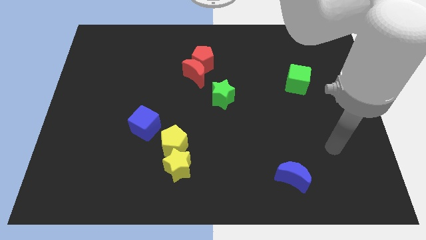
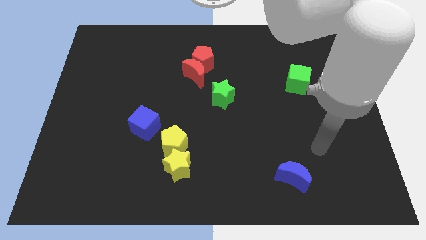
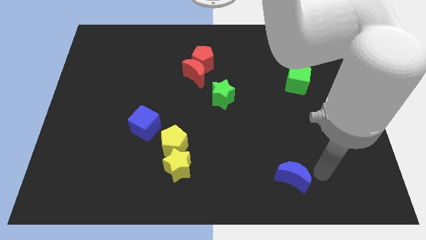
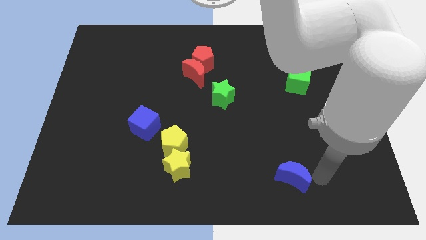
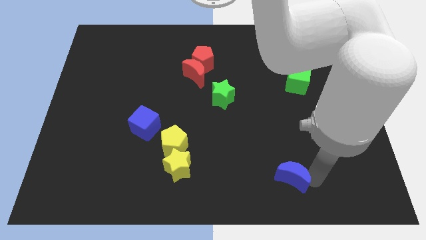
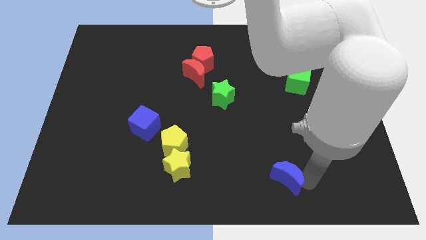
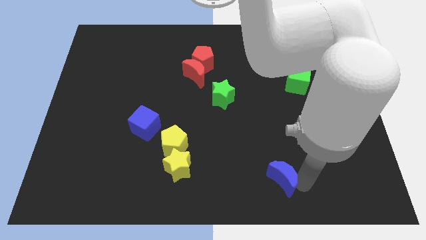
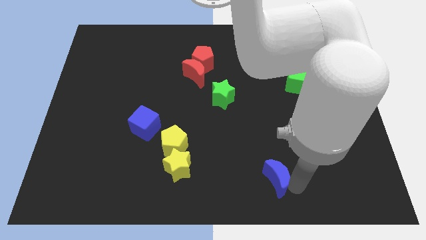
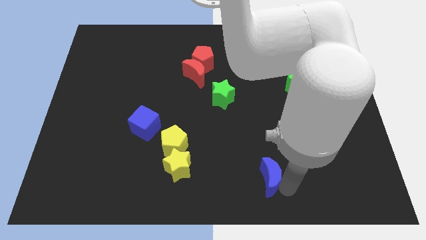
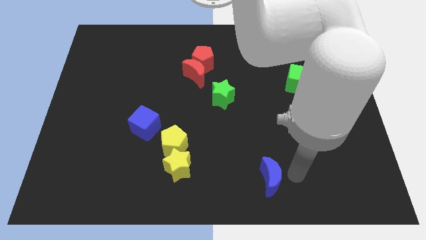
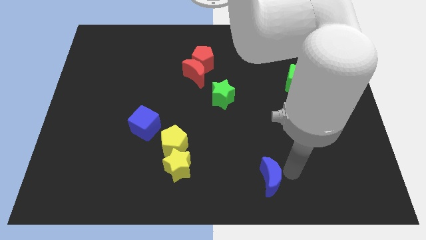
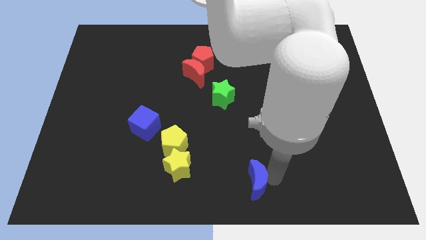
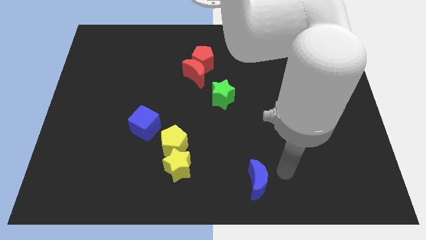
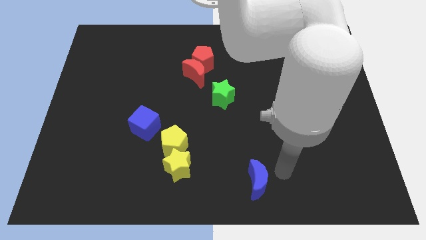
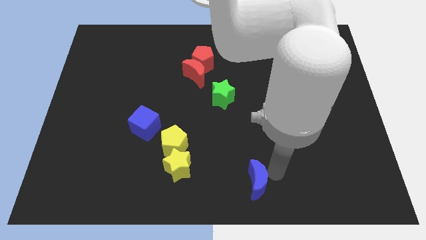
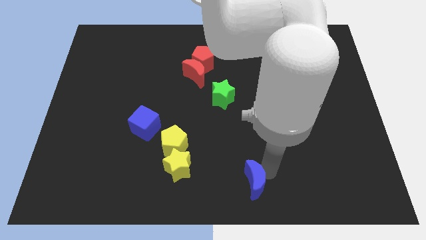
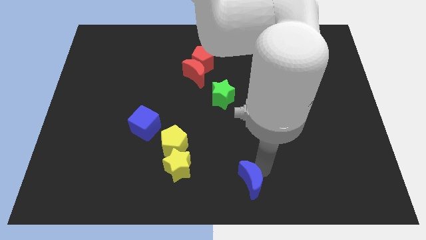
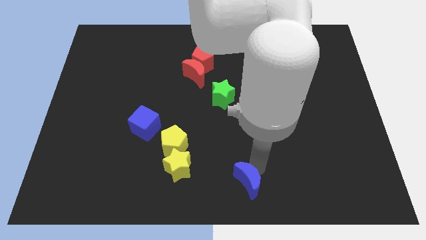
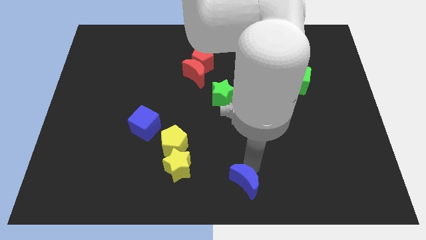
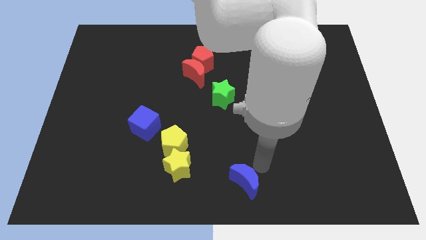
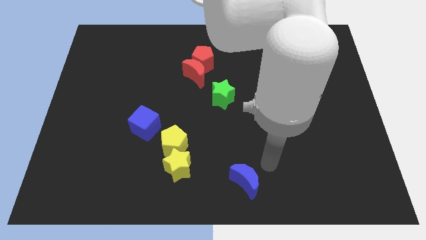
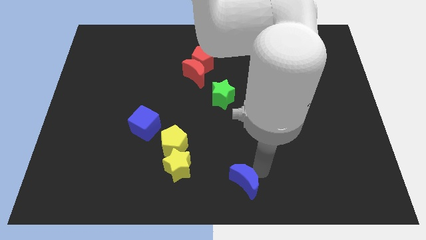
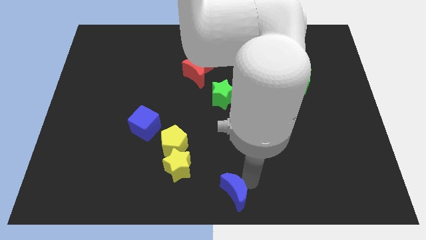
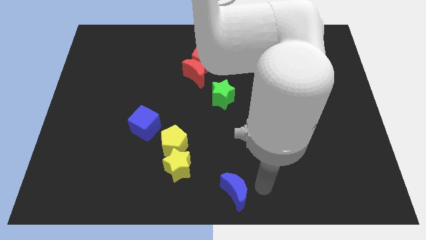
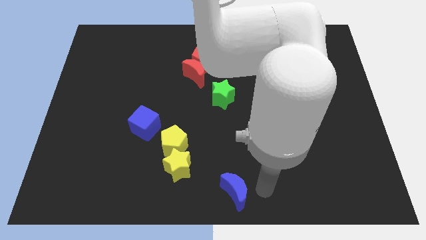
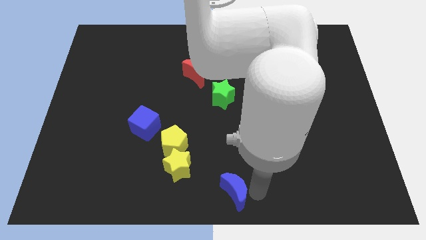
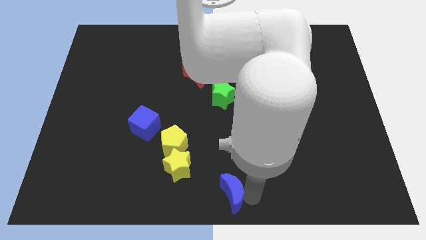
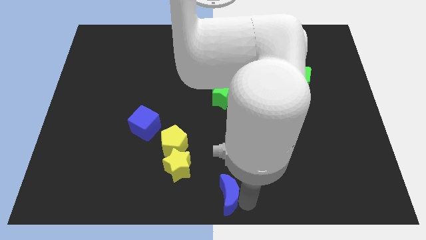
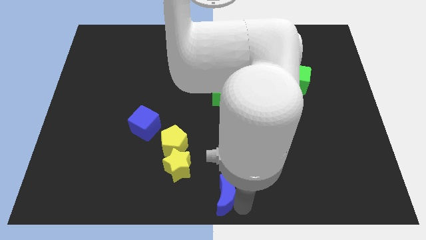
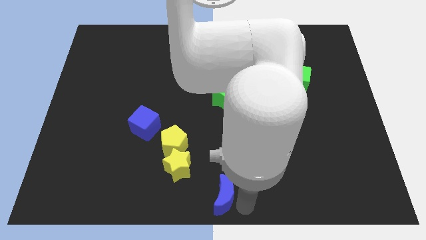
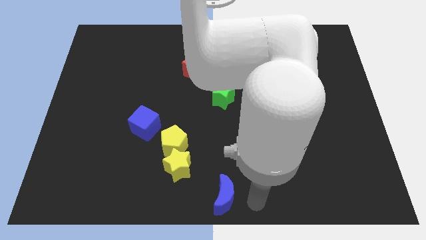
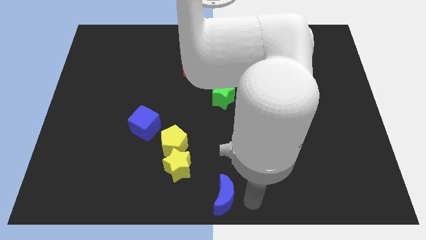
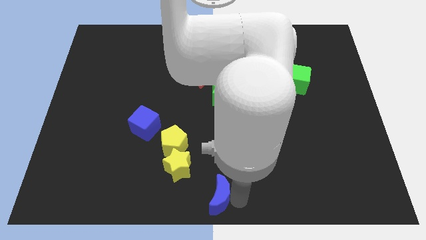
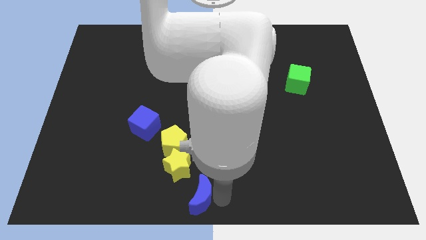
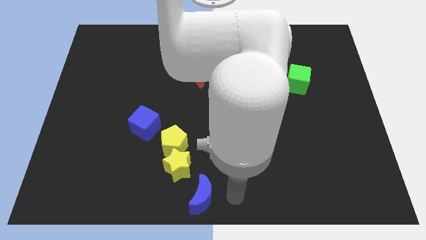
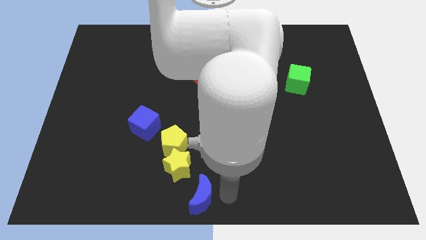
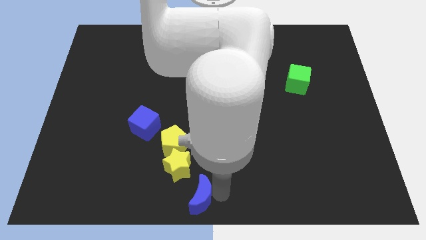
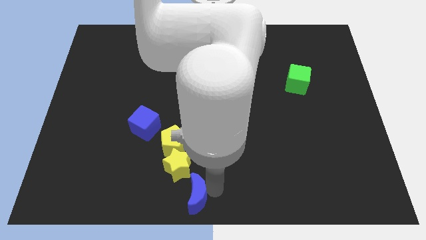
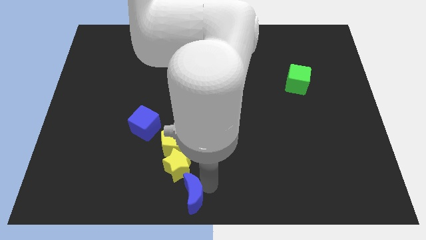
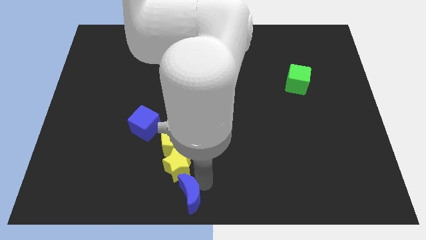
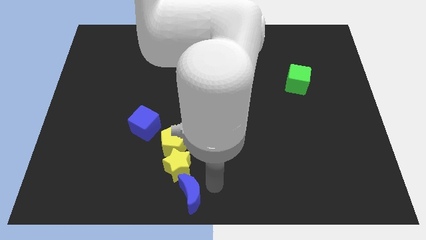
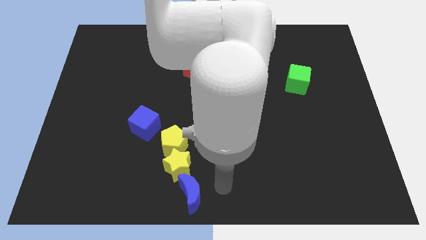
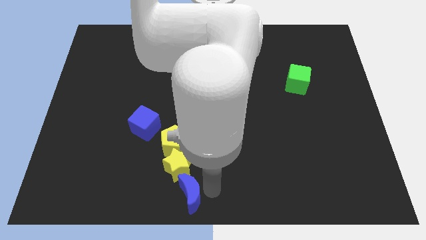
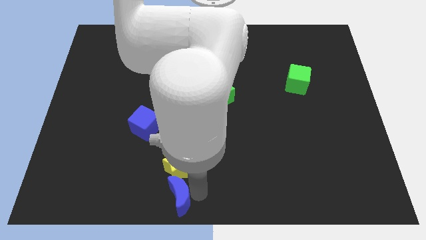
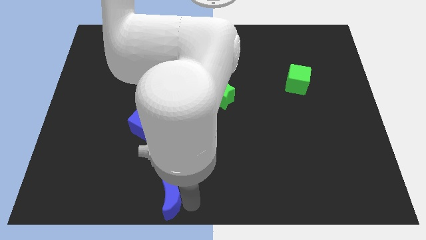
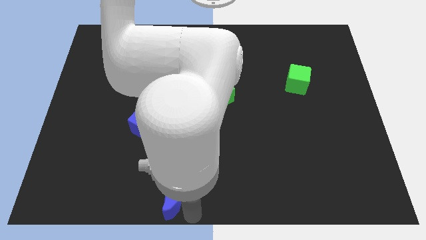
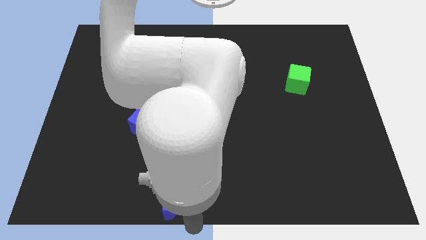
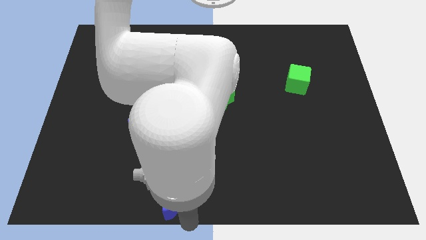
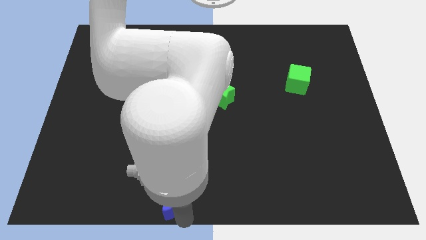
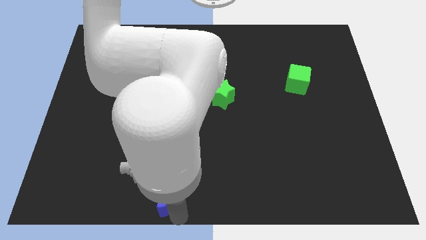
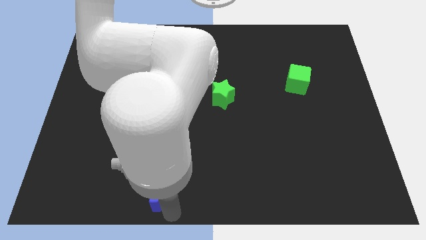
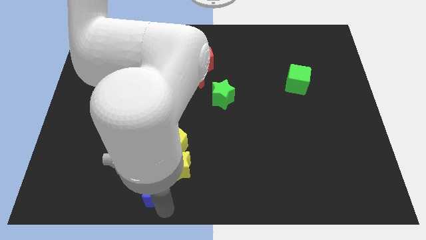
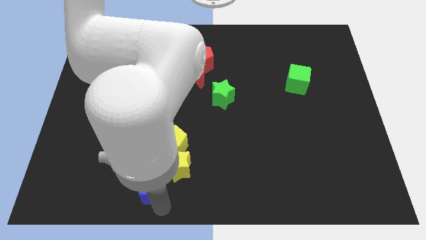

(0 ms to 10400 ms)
push the blue moon to the bottom left of the yellow pentagon
